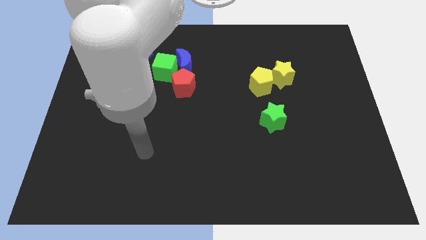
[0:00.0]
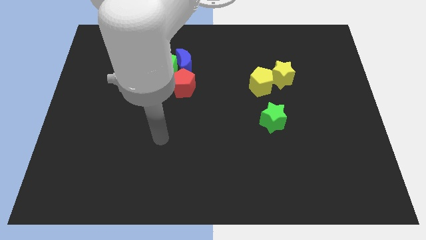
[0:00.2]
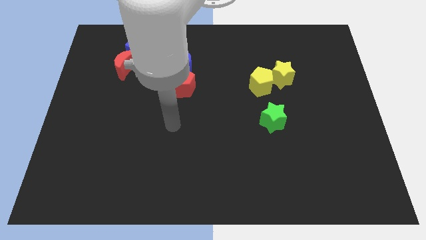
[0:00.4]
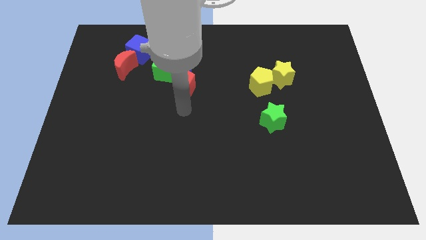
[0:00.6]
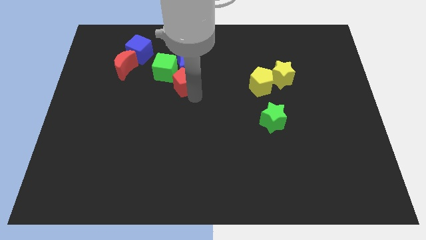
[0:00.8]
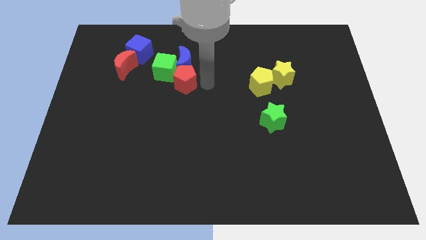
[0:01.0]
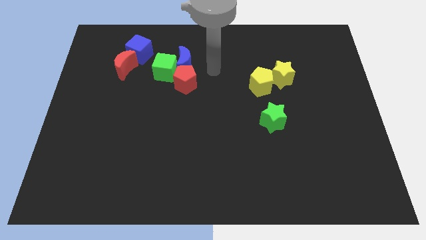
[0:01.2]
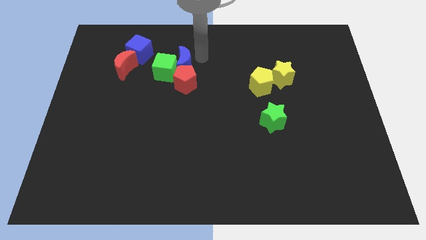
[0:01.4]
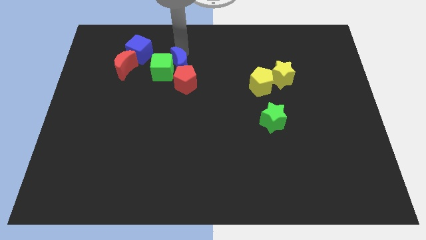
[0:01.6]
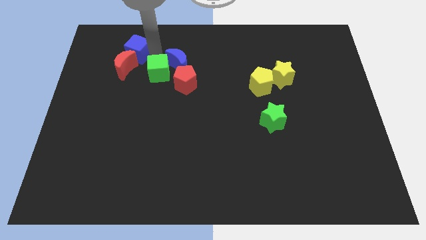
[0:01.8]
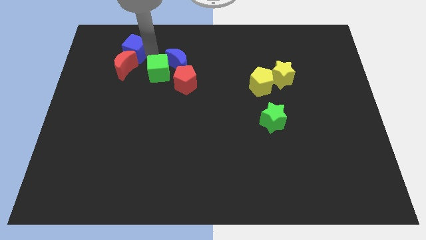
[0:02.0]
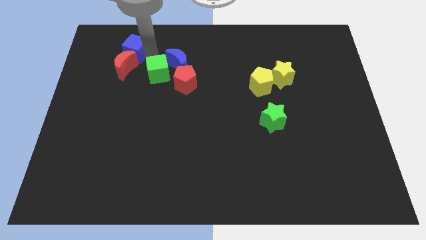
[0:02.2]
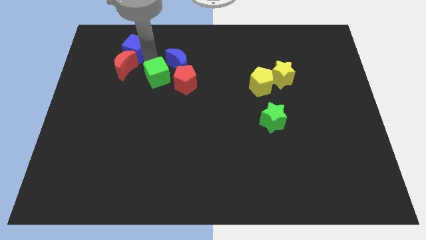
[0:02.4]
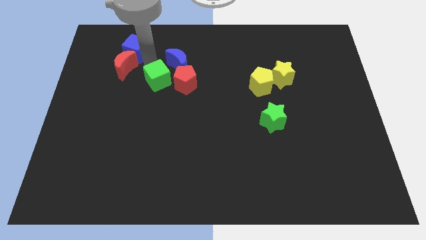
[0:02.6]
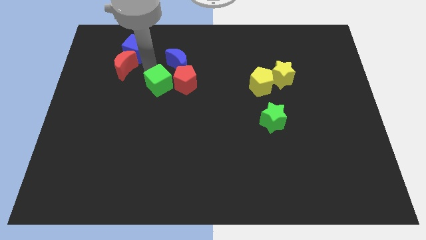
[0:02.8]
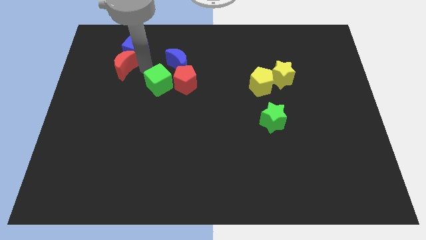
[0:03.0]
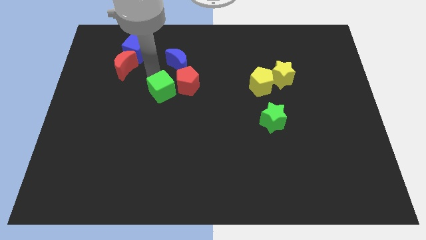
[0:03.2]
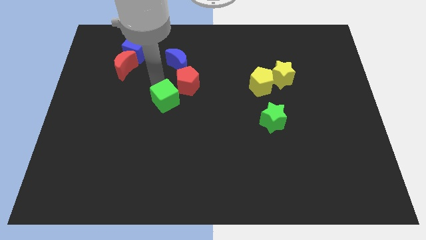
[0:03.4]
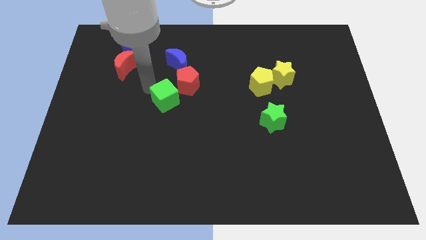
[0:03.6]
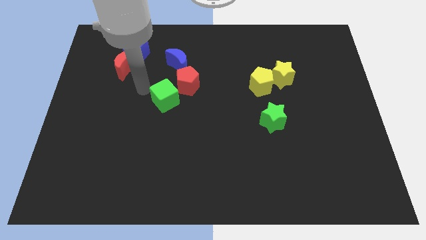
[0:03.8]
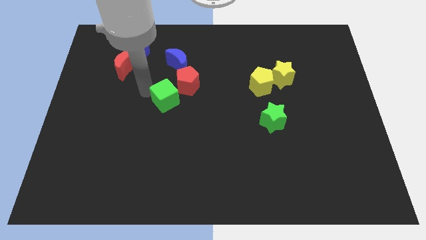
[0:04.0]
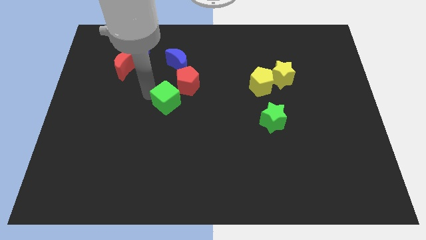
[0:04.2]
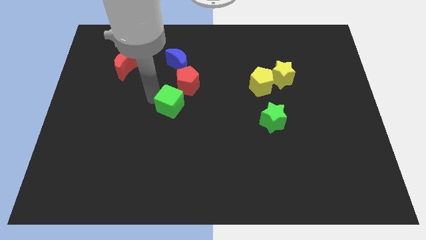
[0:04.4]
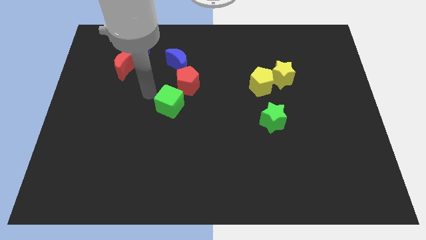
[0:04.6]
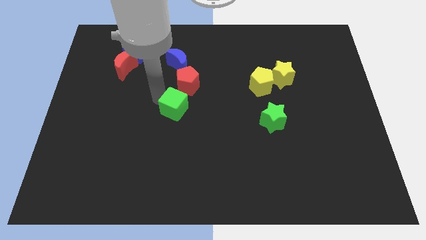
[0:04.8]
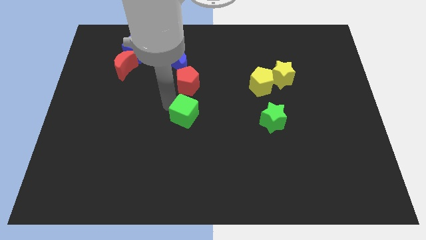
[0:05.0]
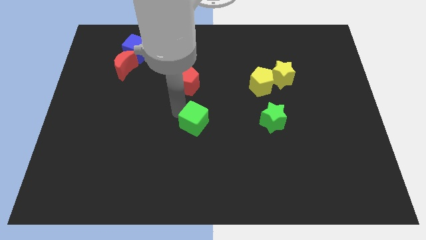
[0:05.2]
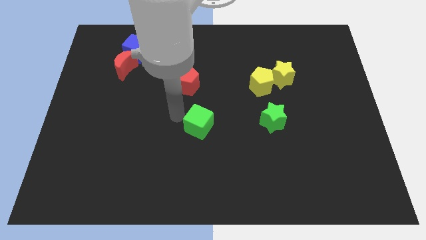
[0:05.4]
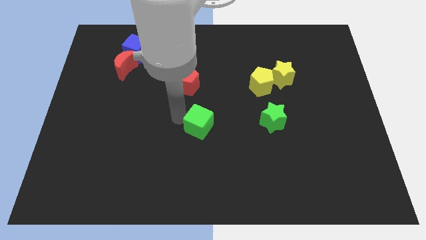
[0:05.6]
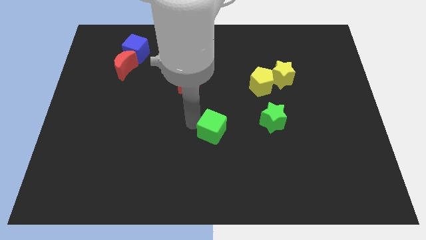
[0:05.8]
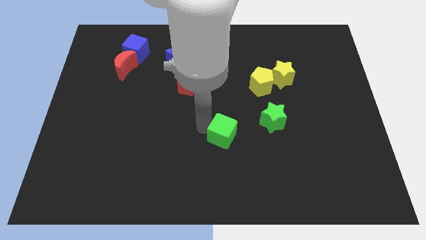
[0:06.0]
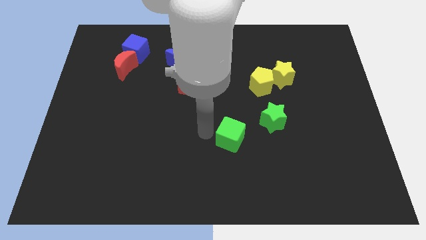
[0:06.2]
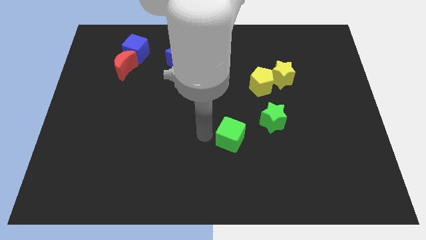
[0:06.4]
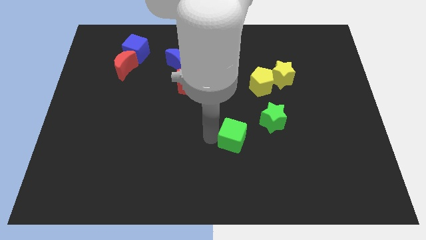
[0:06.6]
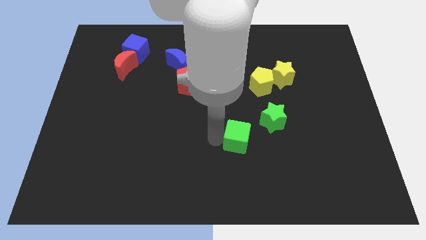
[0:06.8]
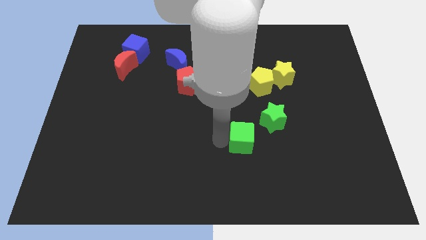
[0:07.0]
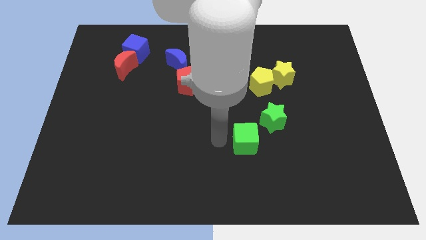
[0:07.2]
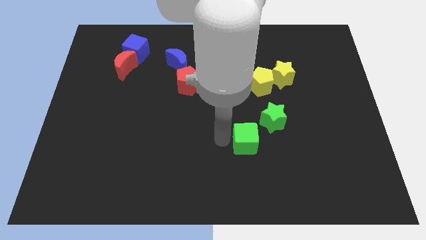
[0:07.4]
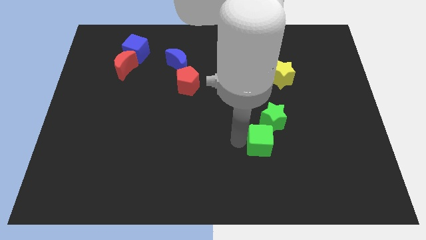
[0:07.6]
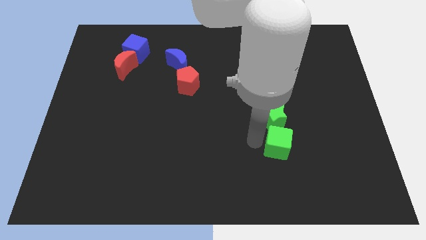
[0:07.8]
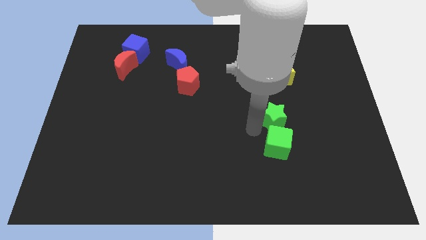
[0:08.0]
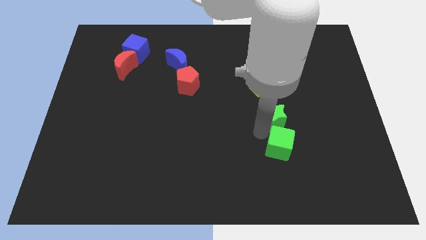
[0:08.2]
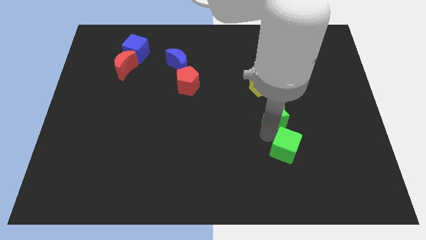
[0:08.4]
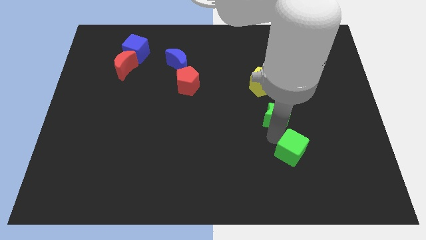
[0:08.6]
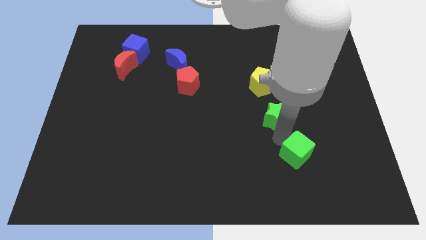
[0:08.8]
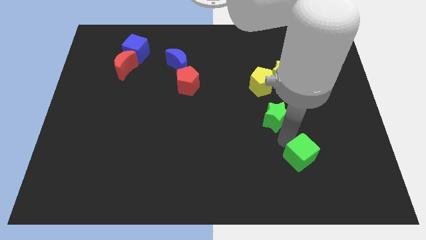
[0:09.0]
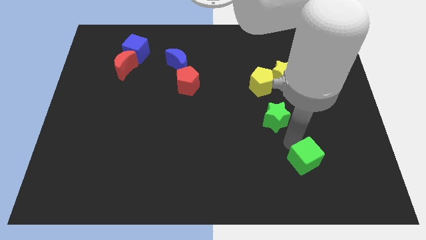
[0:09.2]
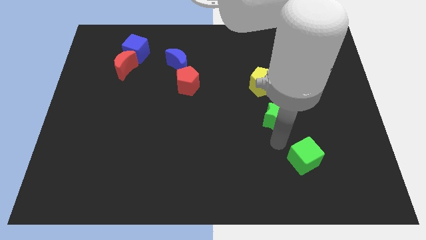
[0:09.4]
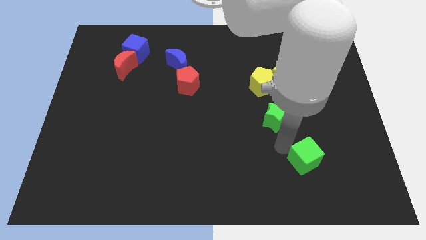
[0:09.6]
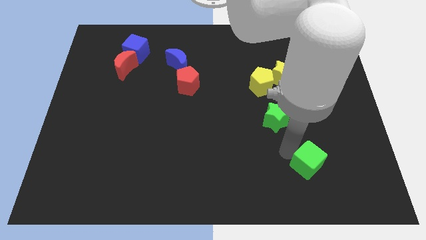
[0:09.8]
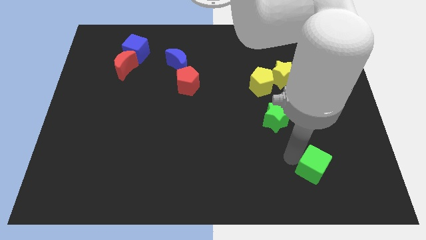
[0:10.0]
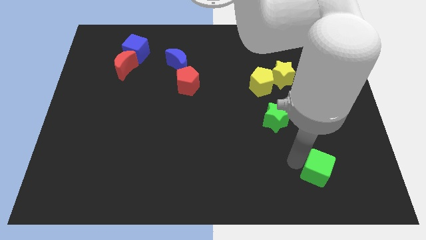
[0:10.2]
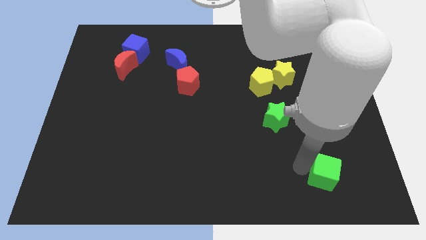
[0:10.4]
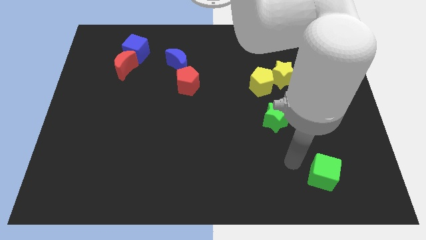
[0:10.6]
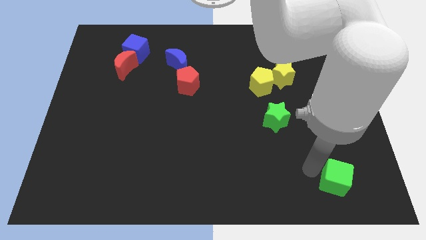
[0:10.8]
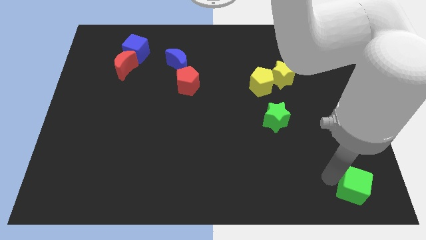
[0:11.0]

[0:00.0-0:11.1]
move the green cube to the lower right corner

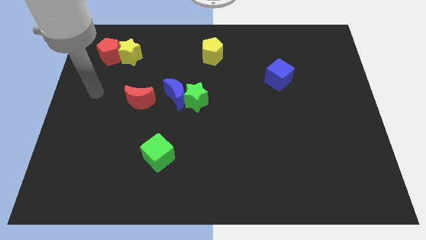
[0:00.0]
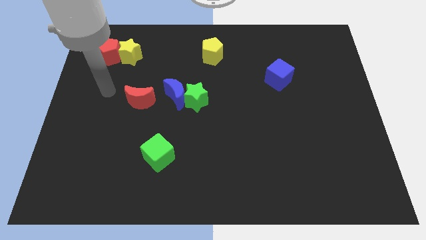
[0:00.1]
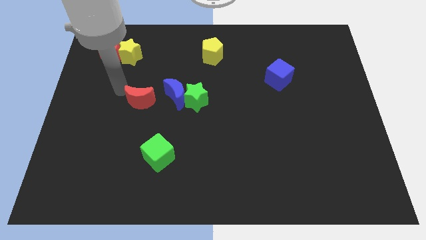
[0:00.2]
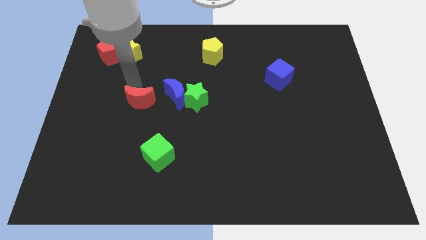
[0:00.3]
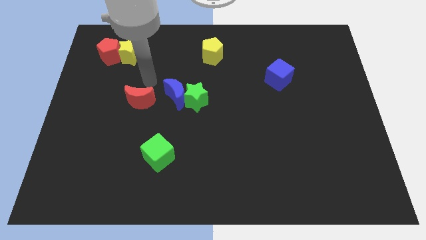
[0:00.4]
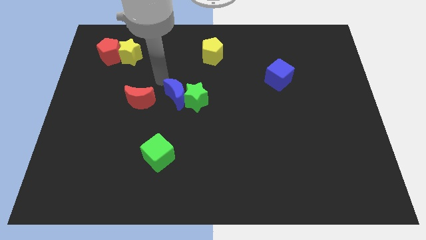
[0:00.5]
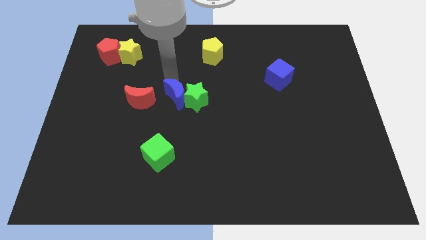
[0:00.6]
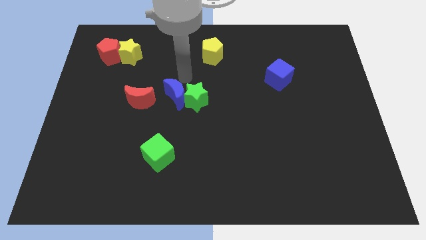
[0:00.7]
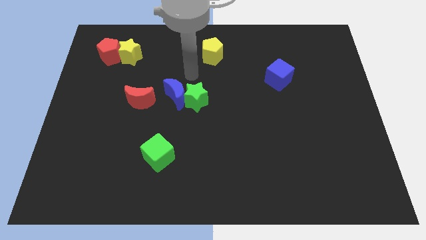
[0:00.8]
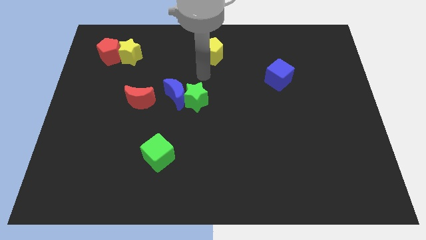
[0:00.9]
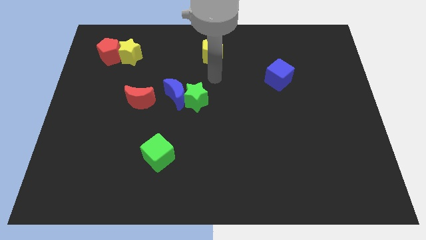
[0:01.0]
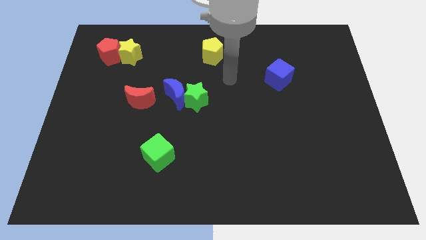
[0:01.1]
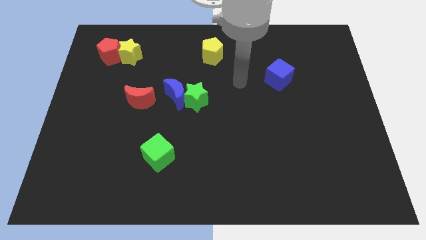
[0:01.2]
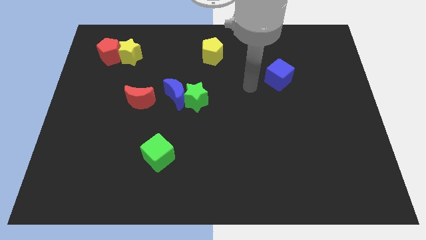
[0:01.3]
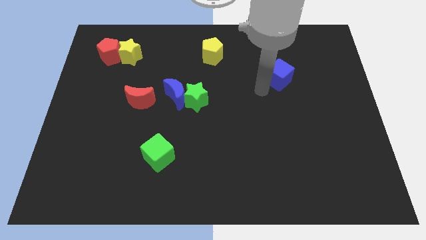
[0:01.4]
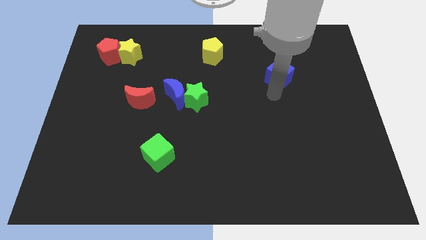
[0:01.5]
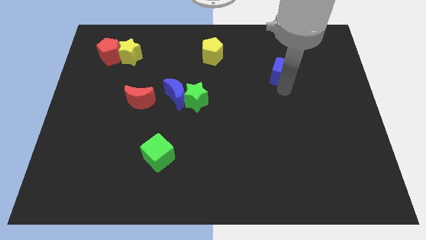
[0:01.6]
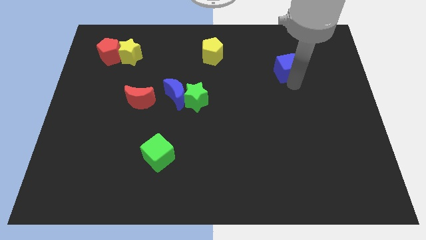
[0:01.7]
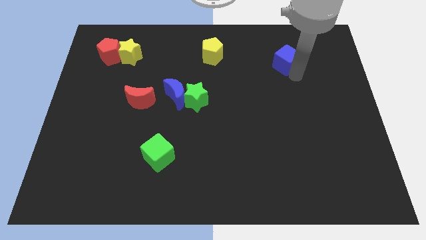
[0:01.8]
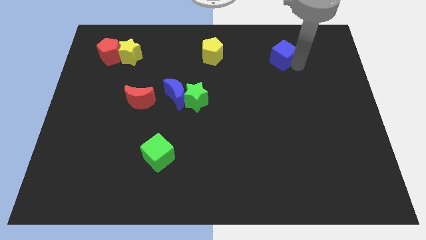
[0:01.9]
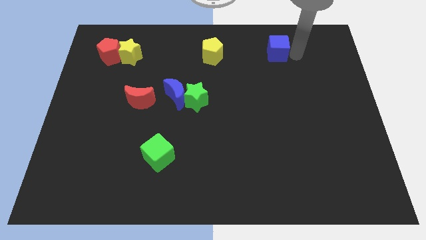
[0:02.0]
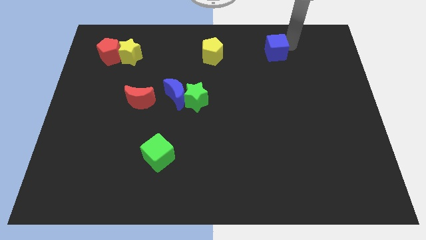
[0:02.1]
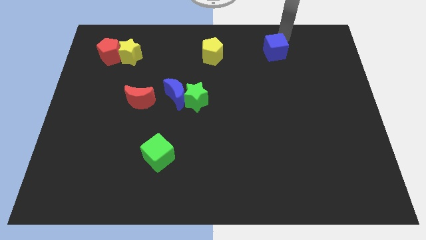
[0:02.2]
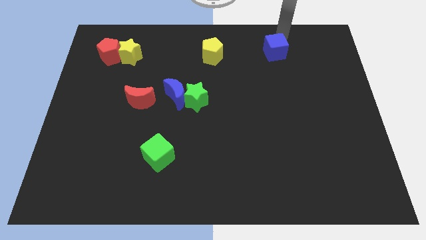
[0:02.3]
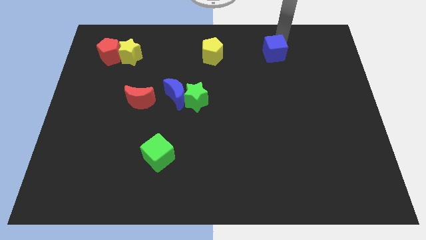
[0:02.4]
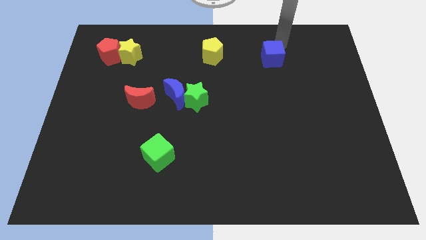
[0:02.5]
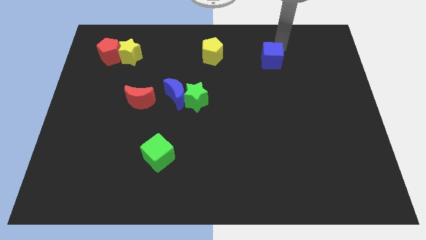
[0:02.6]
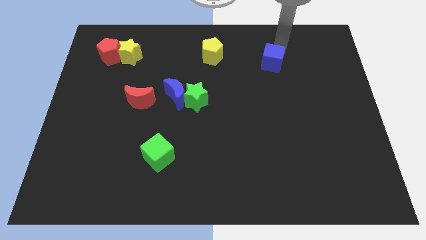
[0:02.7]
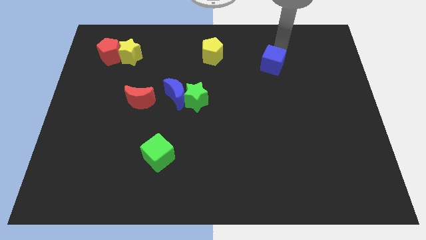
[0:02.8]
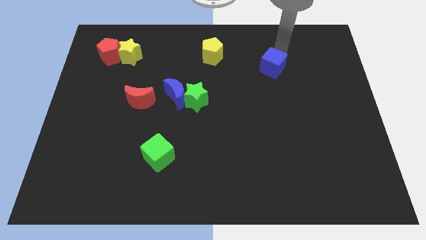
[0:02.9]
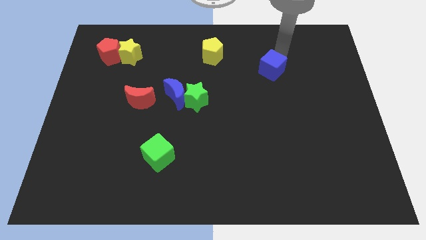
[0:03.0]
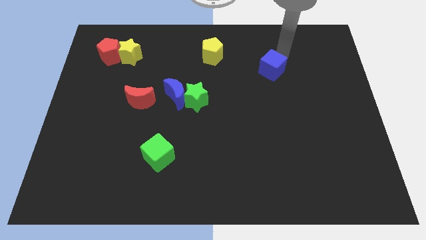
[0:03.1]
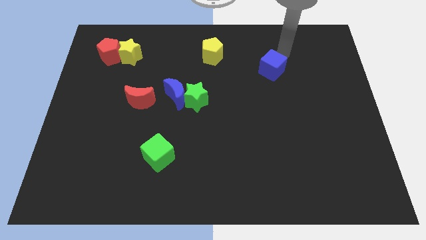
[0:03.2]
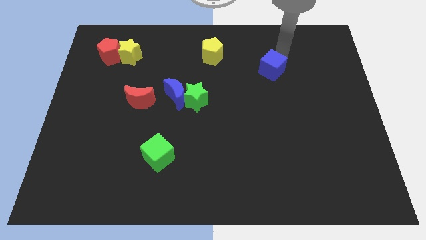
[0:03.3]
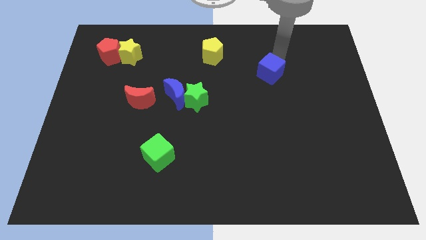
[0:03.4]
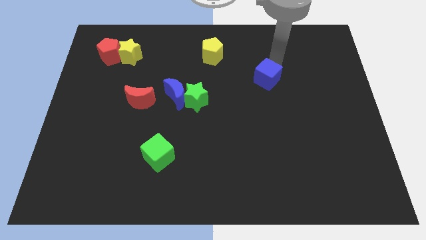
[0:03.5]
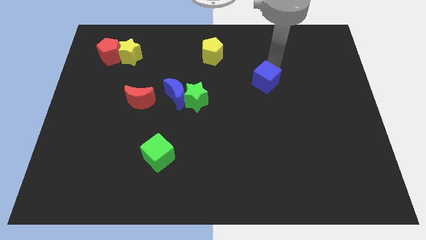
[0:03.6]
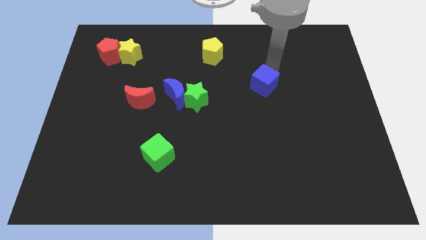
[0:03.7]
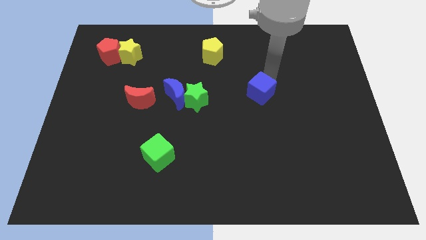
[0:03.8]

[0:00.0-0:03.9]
push the blue cube to the middle of the board
